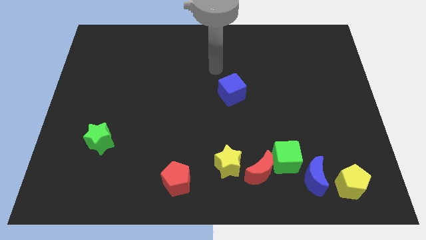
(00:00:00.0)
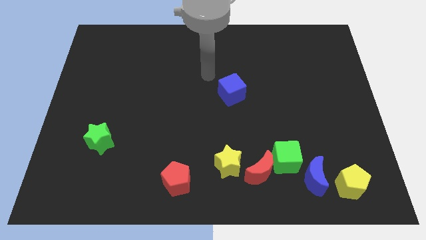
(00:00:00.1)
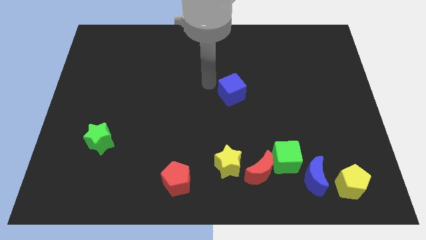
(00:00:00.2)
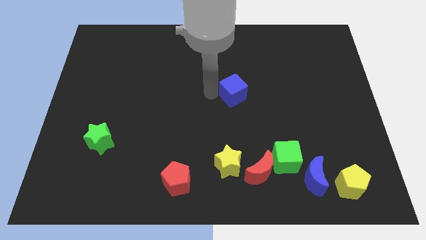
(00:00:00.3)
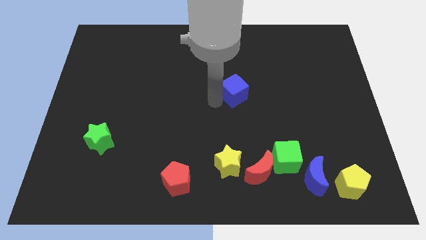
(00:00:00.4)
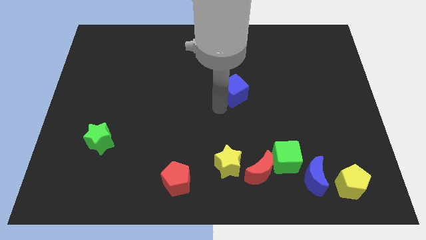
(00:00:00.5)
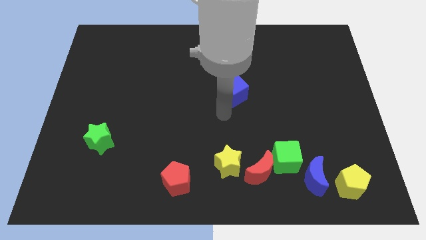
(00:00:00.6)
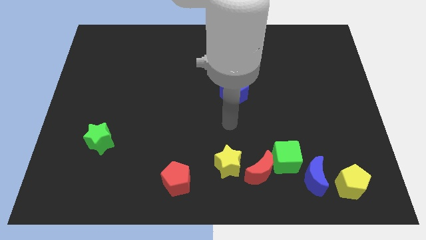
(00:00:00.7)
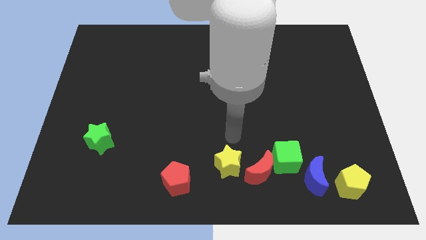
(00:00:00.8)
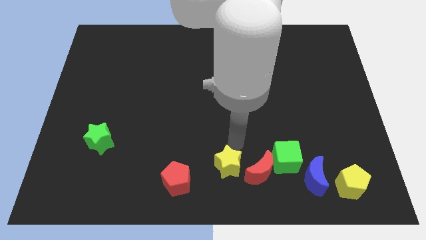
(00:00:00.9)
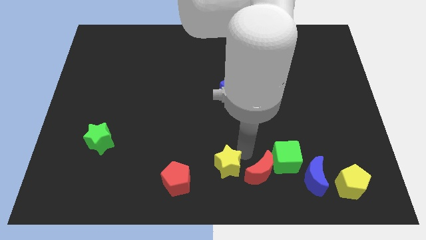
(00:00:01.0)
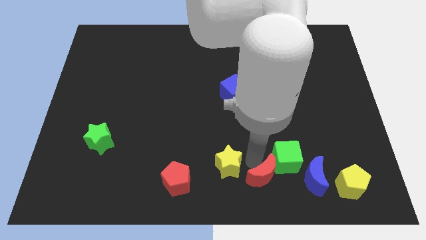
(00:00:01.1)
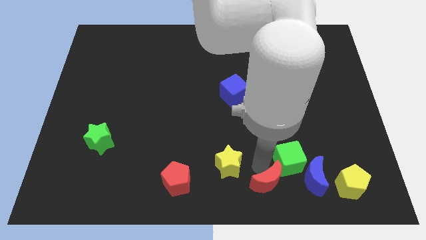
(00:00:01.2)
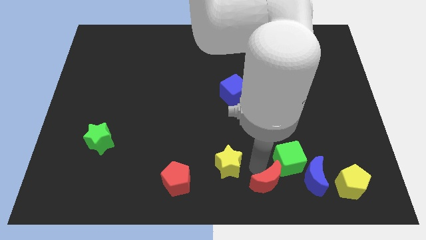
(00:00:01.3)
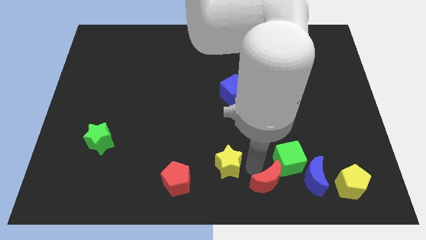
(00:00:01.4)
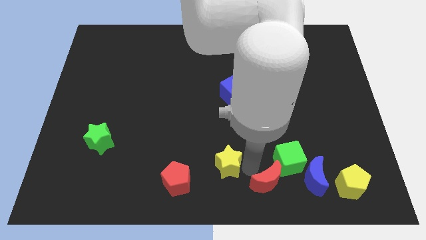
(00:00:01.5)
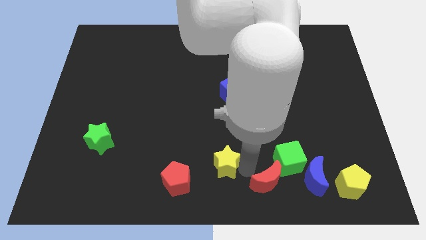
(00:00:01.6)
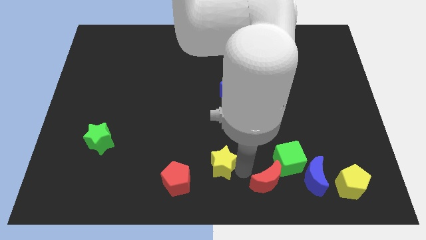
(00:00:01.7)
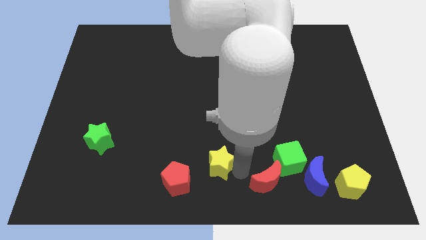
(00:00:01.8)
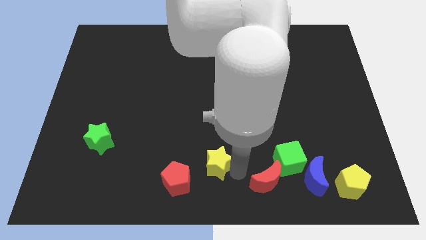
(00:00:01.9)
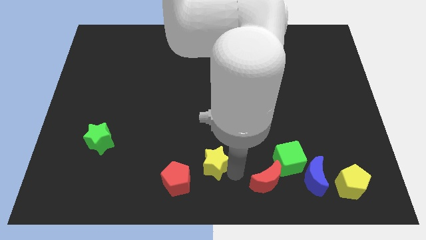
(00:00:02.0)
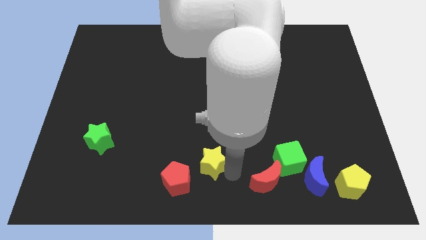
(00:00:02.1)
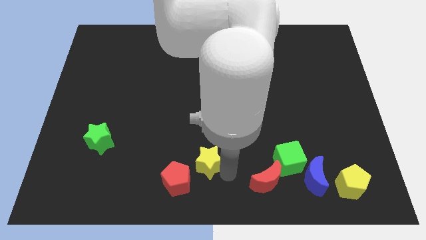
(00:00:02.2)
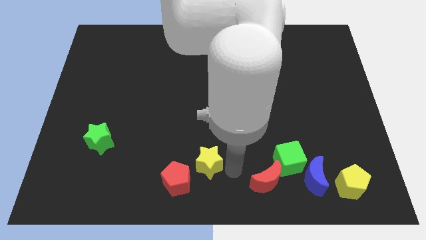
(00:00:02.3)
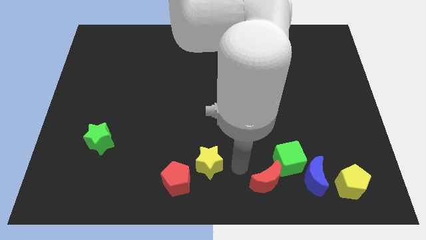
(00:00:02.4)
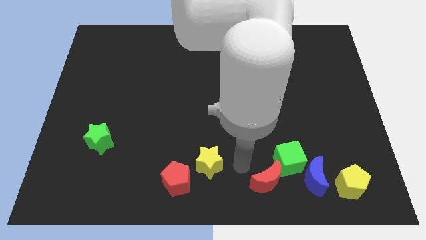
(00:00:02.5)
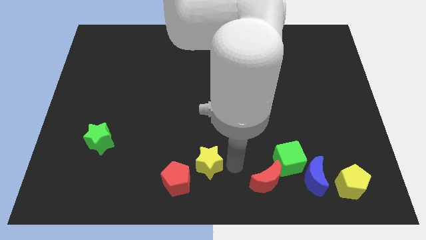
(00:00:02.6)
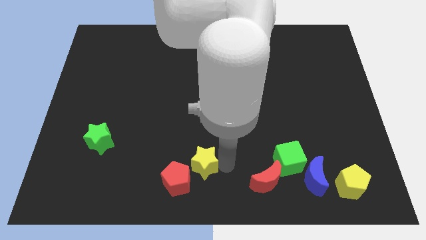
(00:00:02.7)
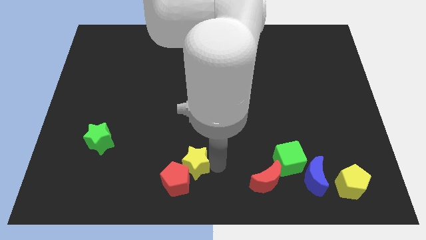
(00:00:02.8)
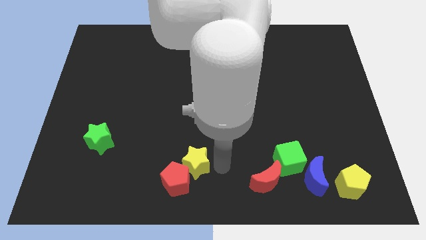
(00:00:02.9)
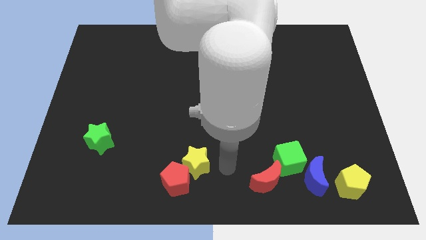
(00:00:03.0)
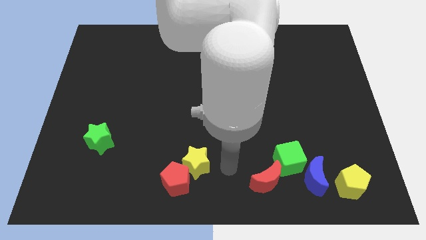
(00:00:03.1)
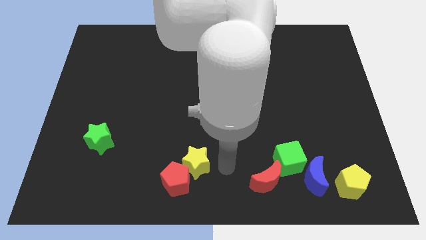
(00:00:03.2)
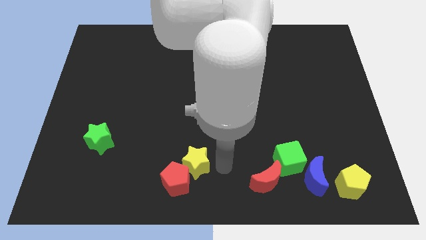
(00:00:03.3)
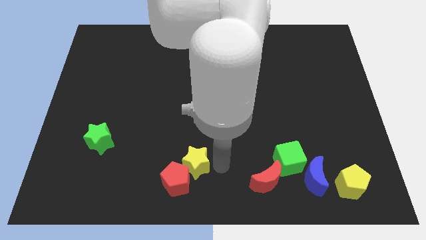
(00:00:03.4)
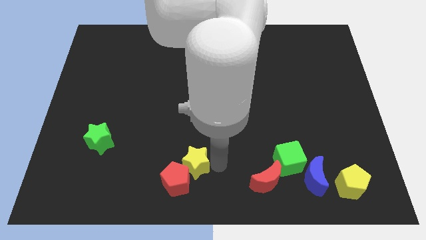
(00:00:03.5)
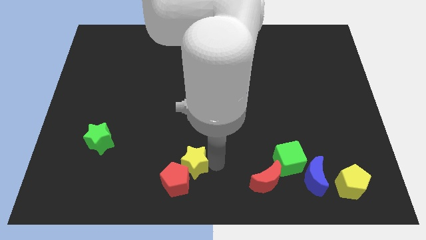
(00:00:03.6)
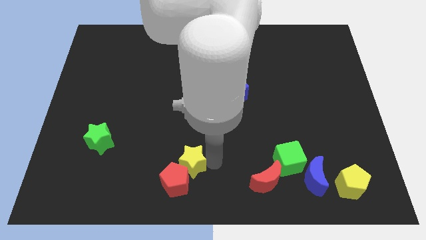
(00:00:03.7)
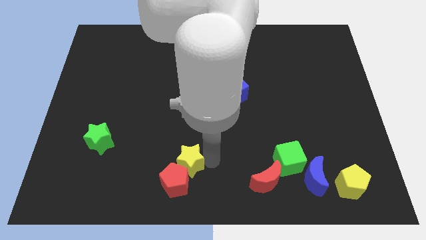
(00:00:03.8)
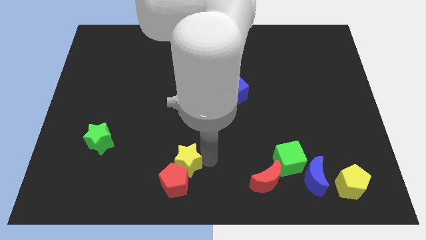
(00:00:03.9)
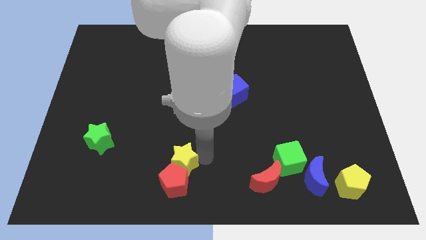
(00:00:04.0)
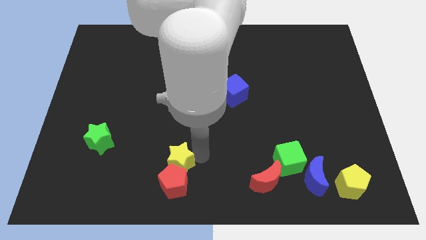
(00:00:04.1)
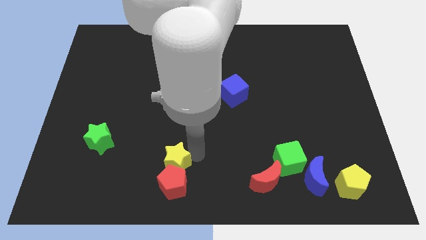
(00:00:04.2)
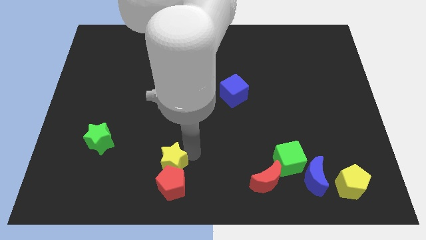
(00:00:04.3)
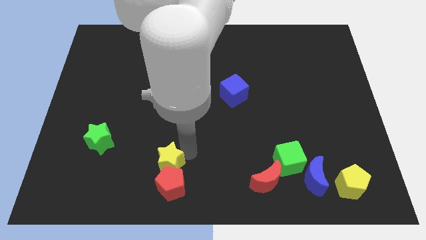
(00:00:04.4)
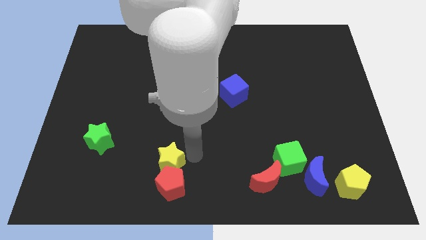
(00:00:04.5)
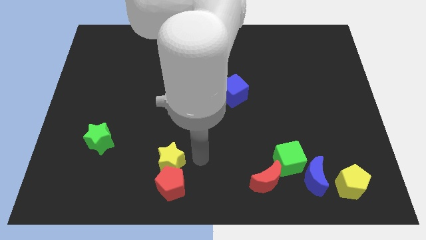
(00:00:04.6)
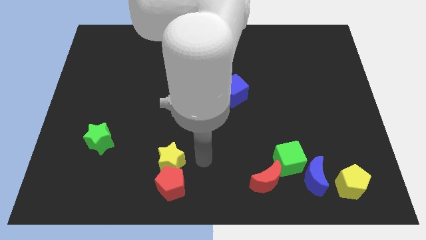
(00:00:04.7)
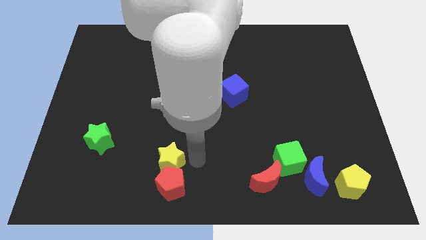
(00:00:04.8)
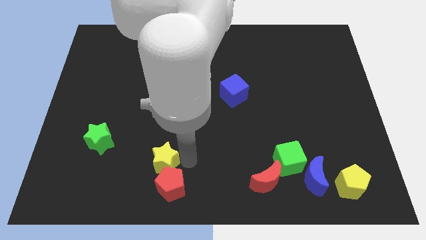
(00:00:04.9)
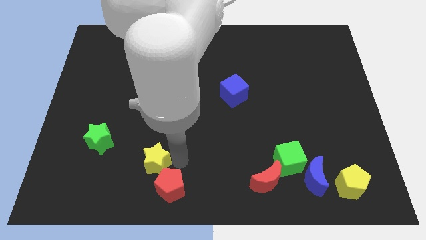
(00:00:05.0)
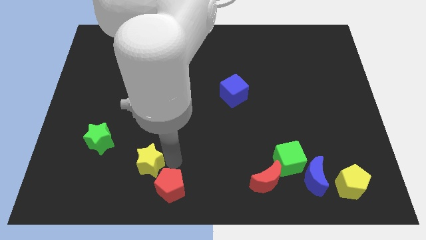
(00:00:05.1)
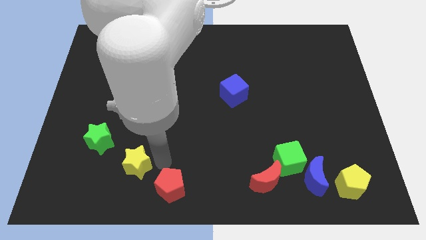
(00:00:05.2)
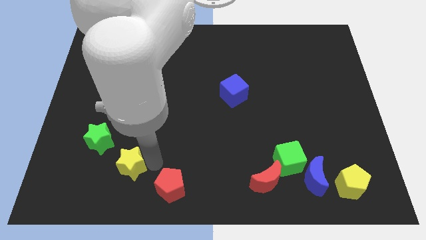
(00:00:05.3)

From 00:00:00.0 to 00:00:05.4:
move the yellow star to the left

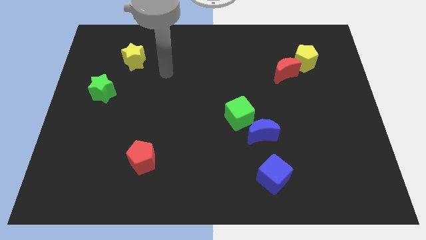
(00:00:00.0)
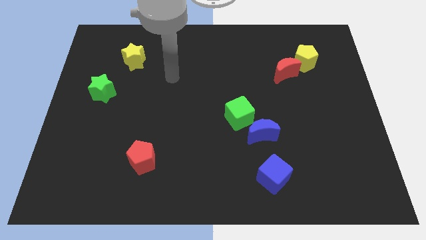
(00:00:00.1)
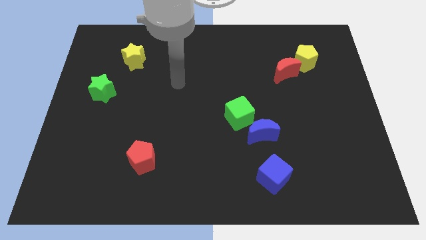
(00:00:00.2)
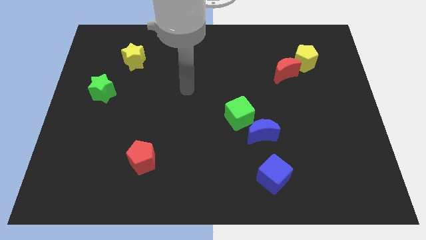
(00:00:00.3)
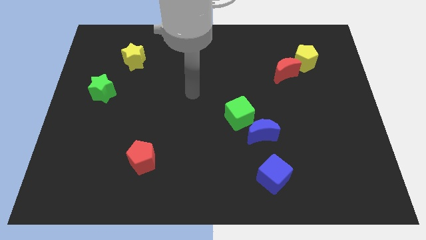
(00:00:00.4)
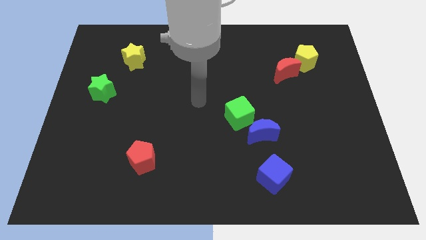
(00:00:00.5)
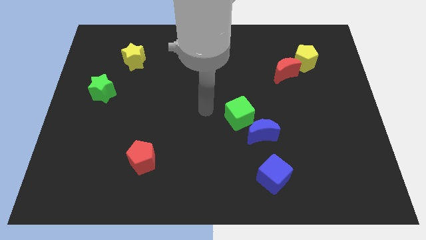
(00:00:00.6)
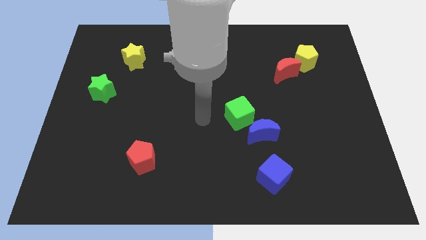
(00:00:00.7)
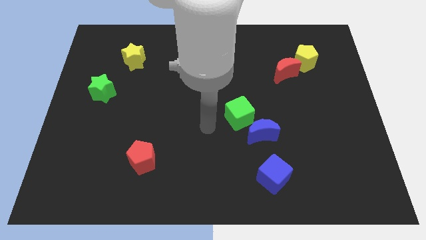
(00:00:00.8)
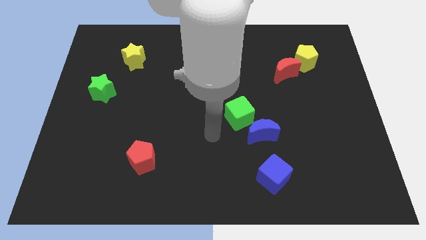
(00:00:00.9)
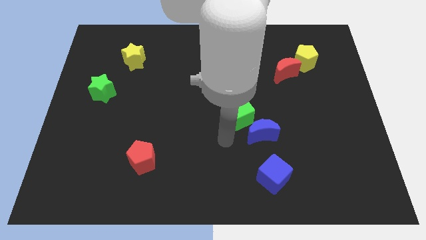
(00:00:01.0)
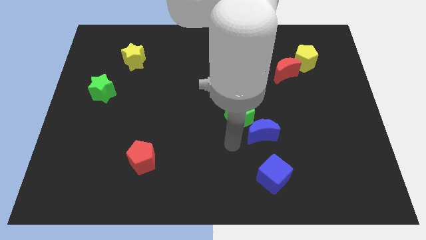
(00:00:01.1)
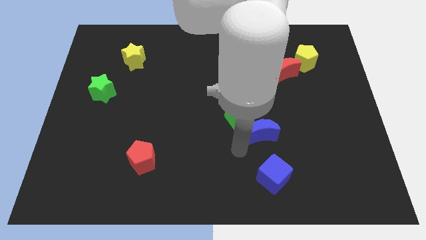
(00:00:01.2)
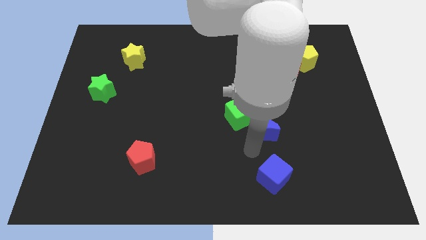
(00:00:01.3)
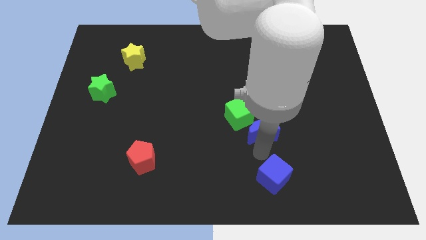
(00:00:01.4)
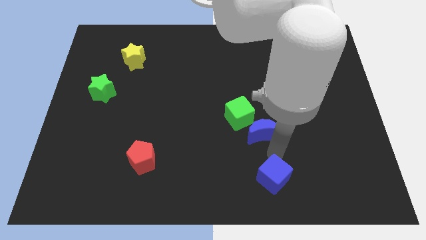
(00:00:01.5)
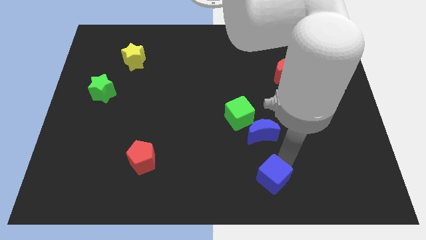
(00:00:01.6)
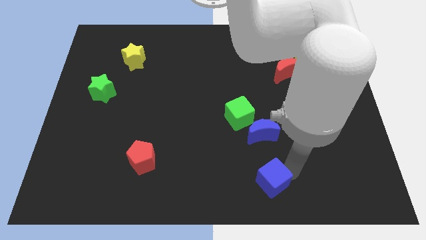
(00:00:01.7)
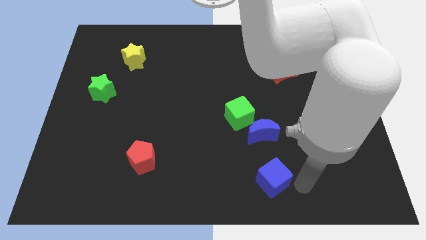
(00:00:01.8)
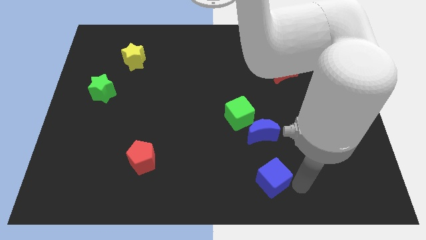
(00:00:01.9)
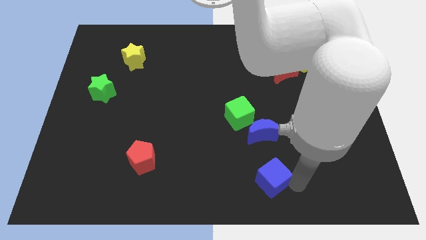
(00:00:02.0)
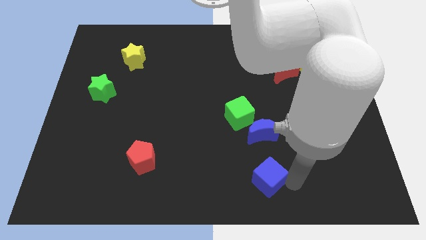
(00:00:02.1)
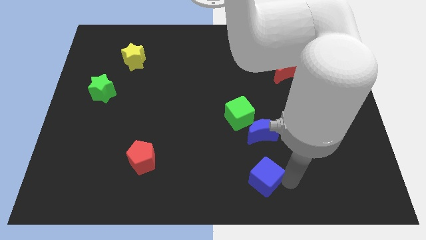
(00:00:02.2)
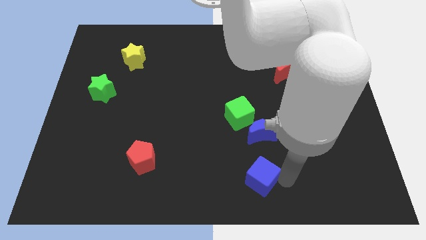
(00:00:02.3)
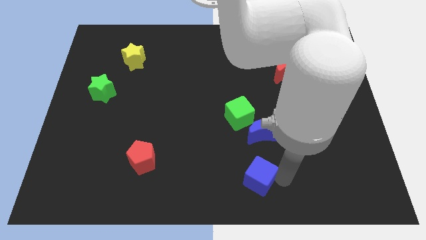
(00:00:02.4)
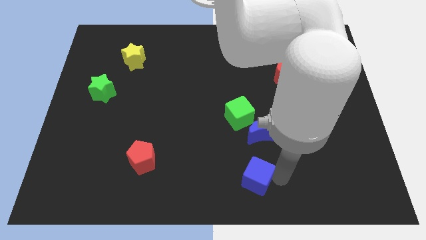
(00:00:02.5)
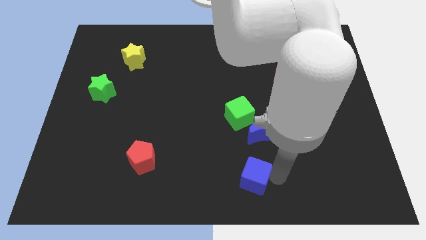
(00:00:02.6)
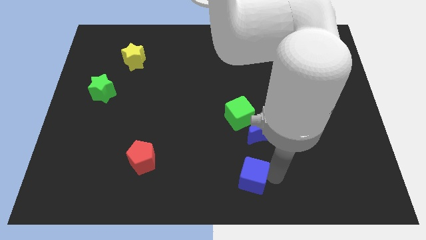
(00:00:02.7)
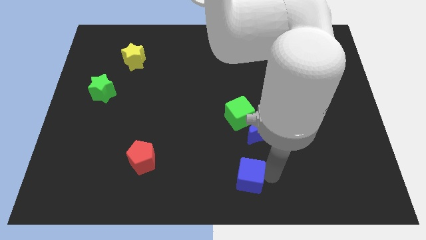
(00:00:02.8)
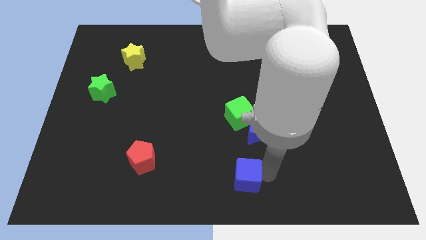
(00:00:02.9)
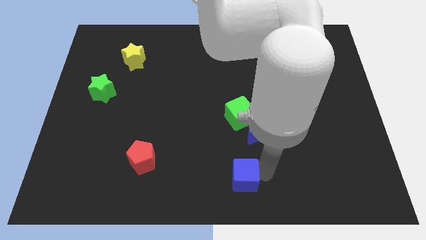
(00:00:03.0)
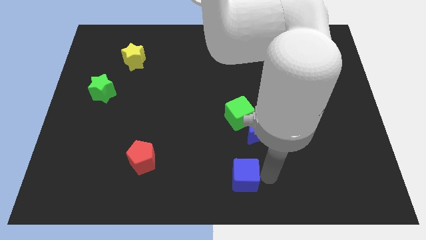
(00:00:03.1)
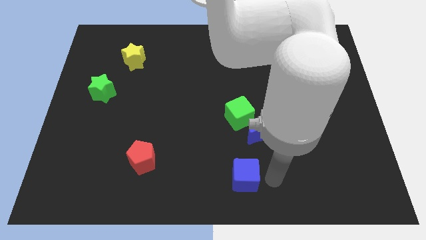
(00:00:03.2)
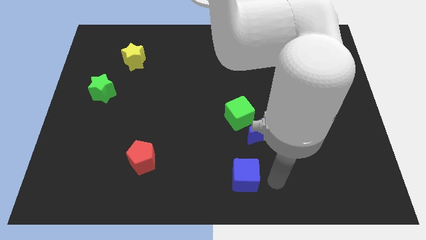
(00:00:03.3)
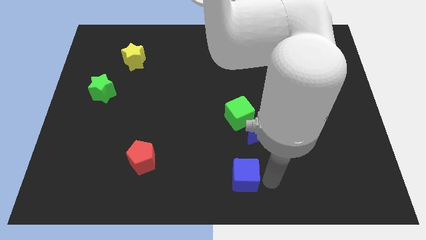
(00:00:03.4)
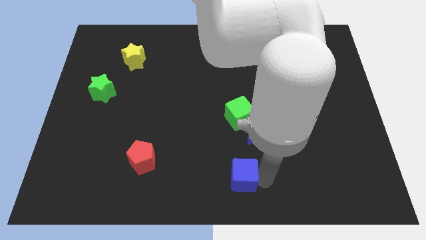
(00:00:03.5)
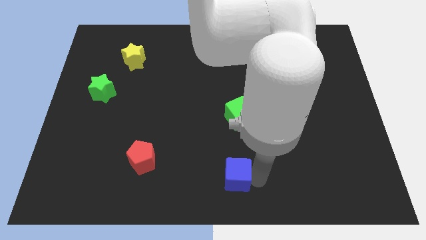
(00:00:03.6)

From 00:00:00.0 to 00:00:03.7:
slightly push the blue cube left
